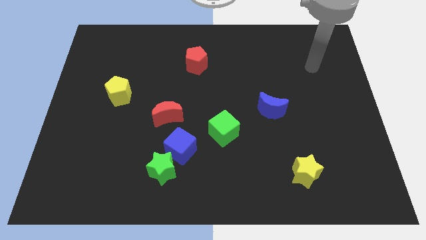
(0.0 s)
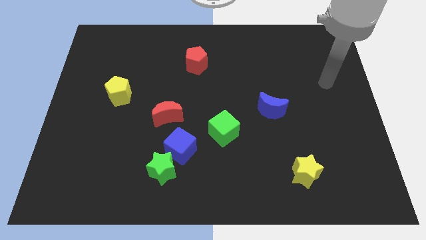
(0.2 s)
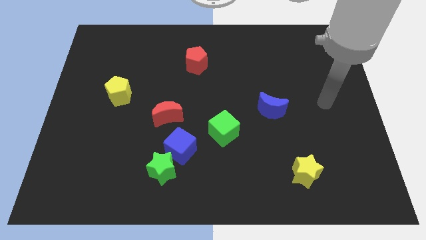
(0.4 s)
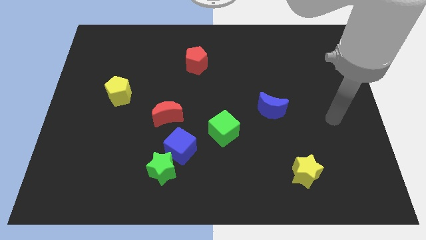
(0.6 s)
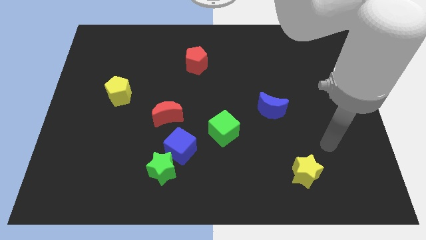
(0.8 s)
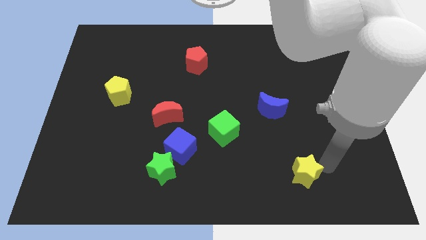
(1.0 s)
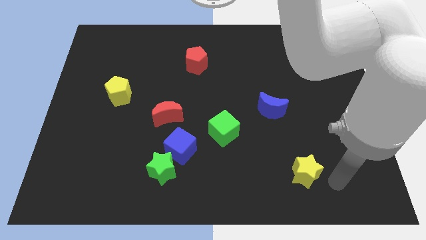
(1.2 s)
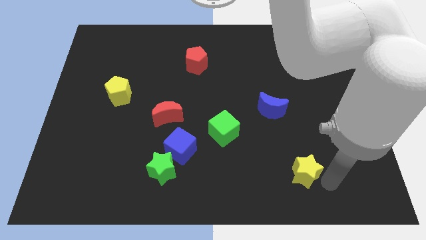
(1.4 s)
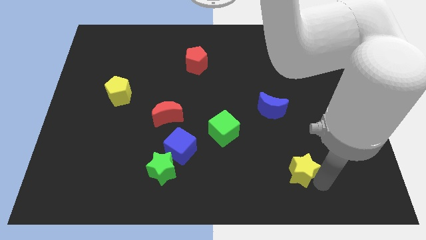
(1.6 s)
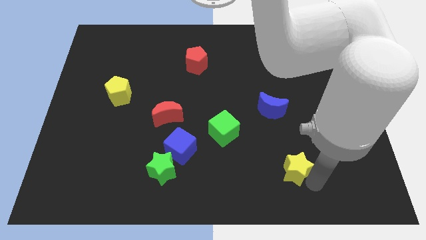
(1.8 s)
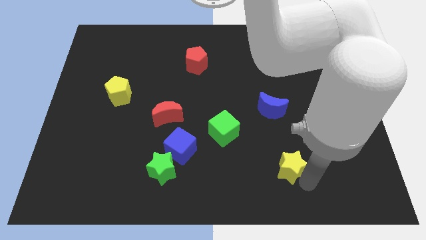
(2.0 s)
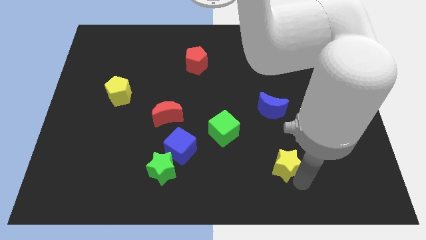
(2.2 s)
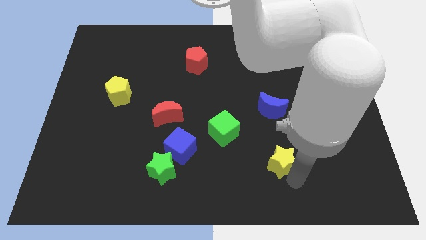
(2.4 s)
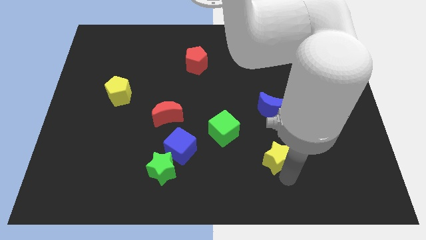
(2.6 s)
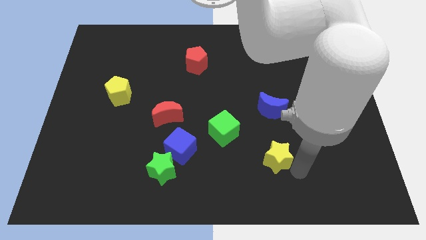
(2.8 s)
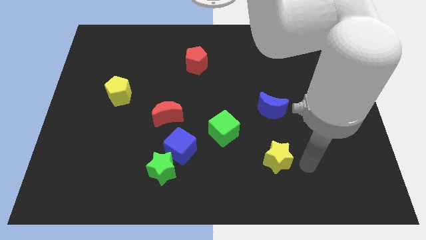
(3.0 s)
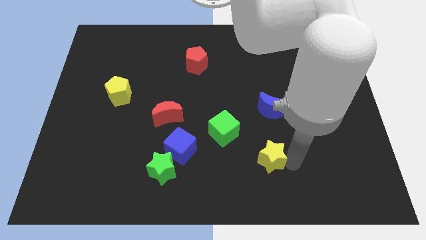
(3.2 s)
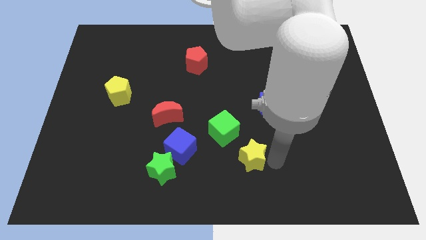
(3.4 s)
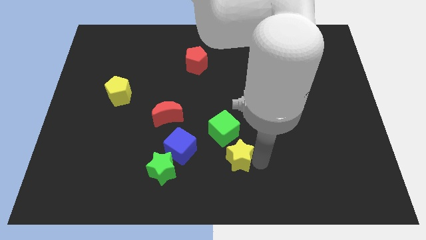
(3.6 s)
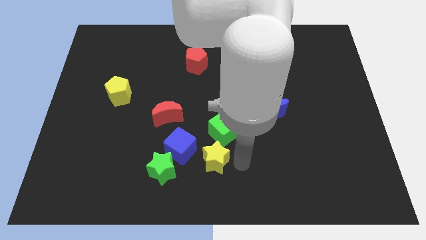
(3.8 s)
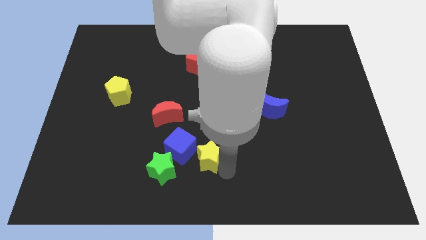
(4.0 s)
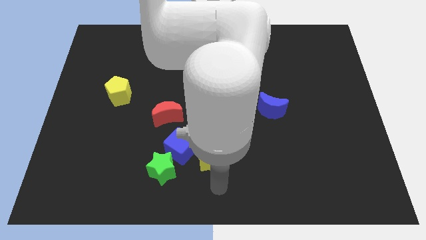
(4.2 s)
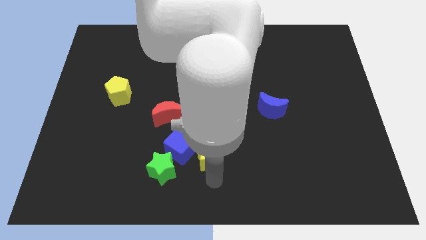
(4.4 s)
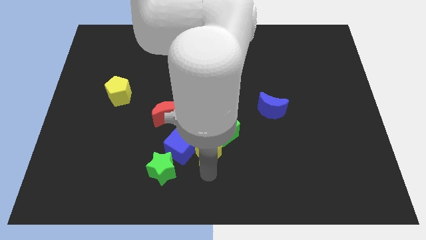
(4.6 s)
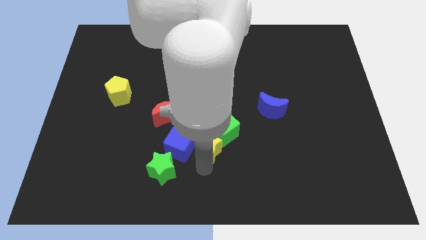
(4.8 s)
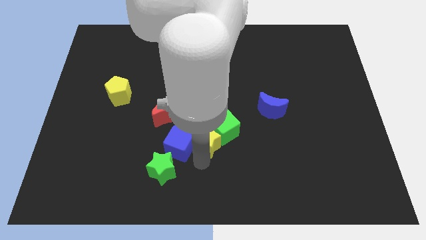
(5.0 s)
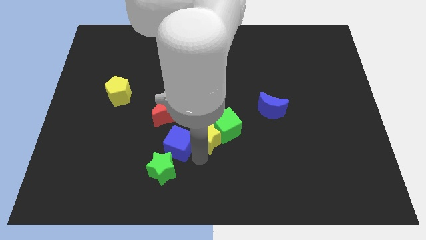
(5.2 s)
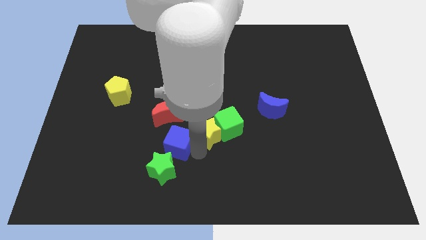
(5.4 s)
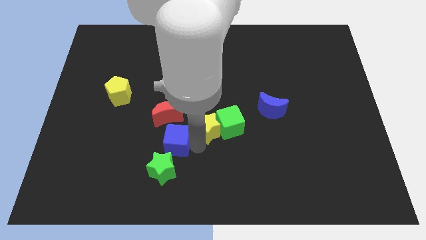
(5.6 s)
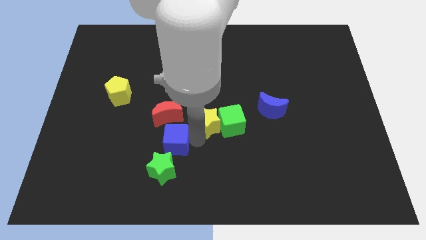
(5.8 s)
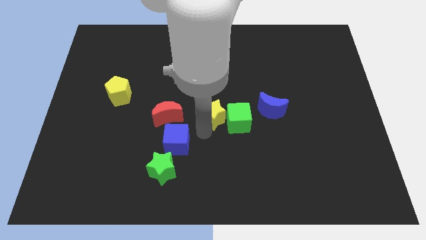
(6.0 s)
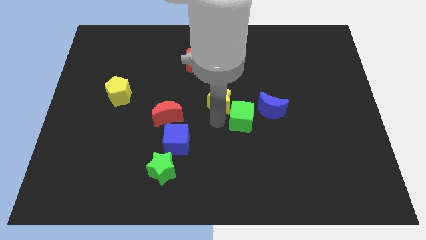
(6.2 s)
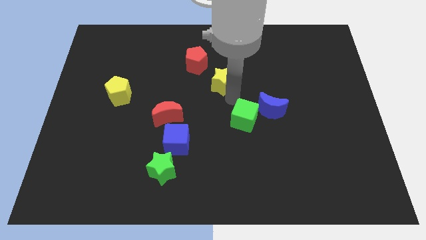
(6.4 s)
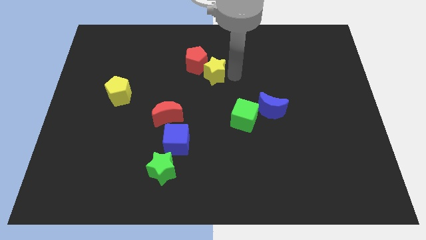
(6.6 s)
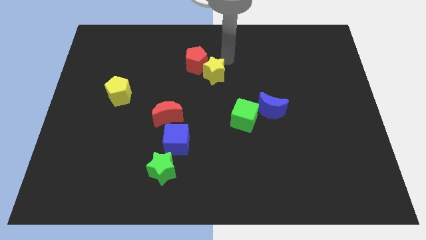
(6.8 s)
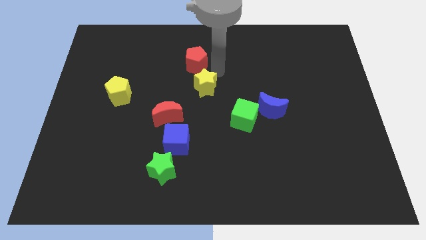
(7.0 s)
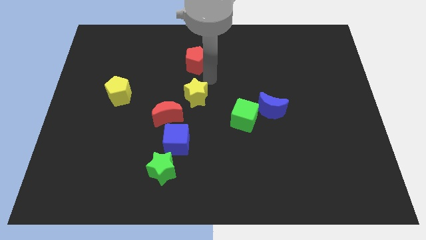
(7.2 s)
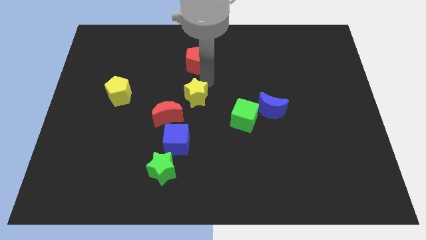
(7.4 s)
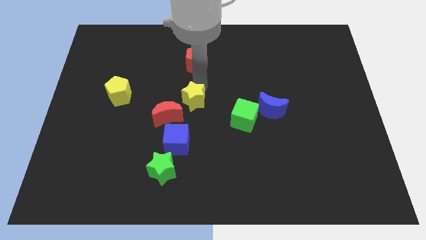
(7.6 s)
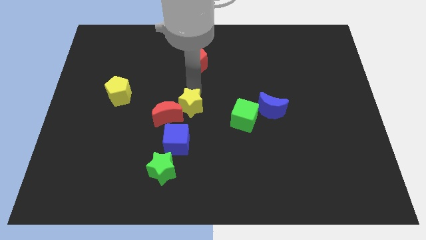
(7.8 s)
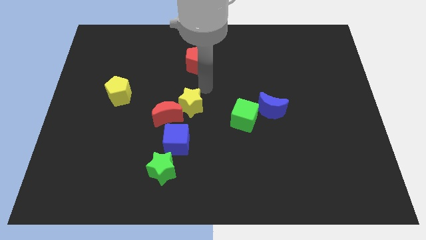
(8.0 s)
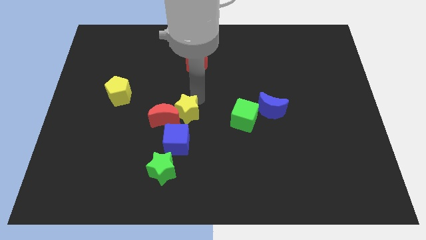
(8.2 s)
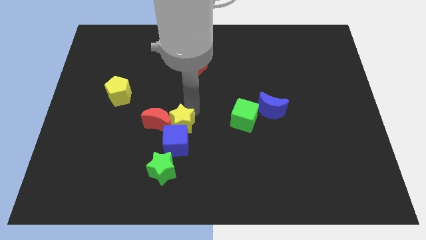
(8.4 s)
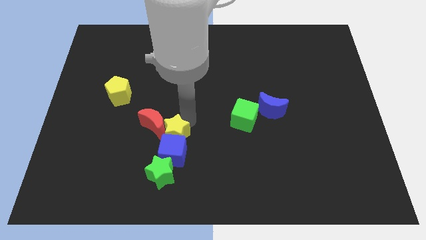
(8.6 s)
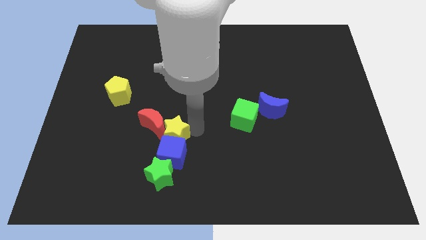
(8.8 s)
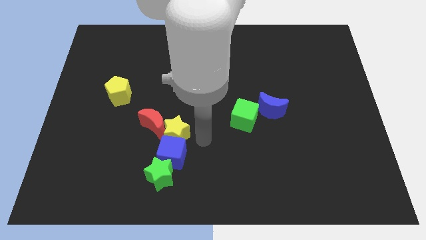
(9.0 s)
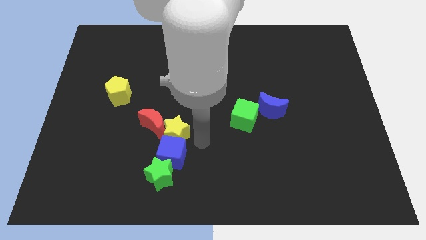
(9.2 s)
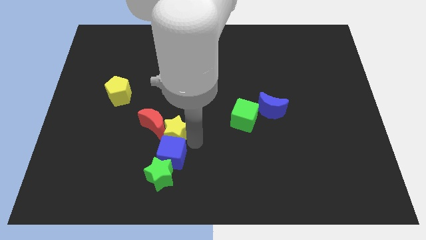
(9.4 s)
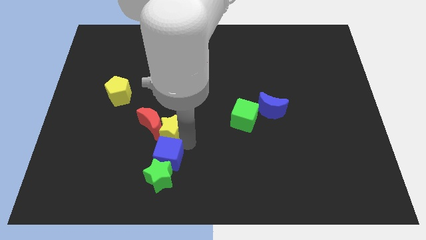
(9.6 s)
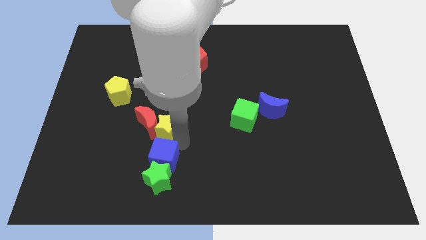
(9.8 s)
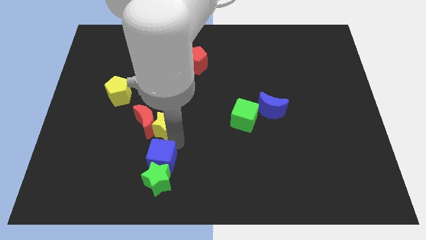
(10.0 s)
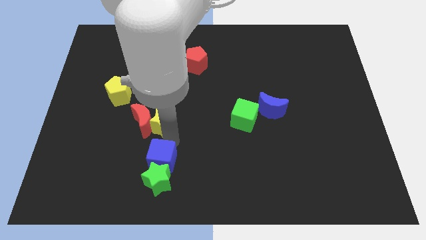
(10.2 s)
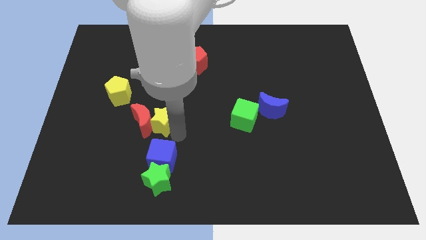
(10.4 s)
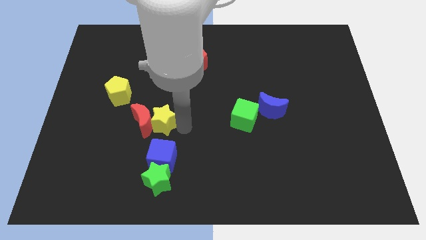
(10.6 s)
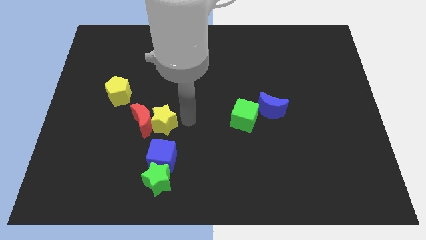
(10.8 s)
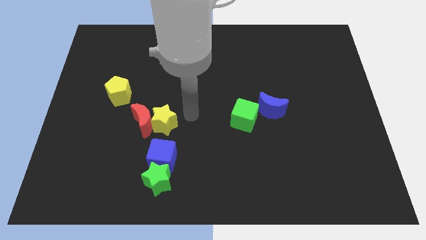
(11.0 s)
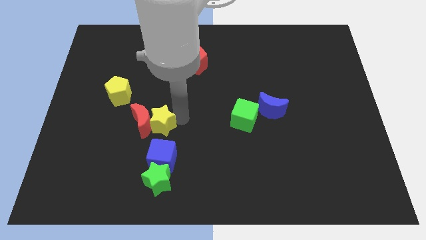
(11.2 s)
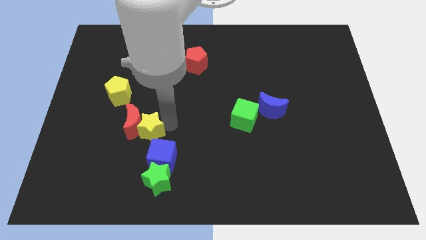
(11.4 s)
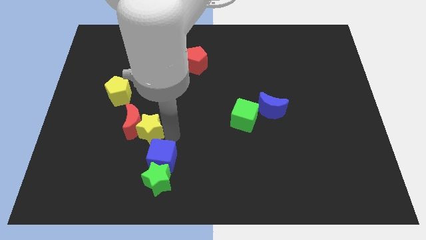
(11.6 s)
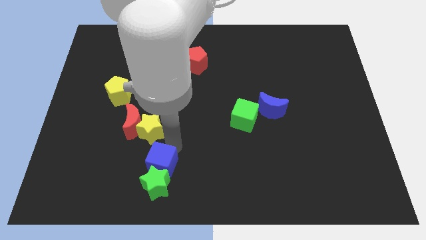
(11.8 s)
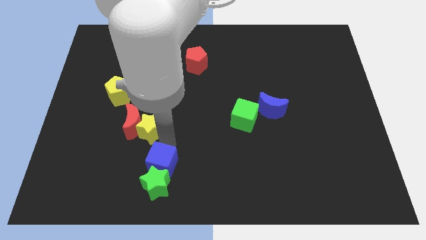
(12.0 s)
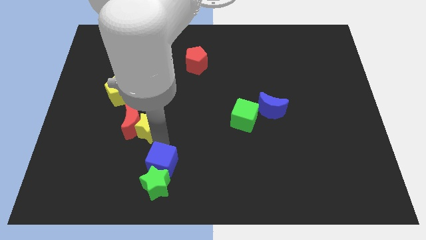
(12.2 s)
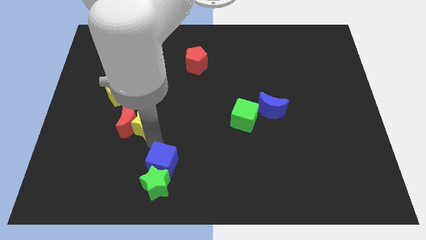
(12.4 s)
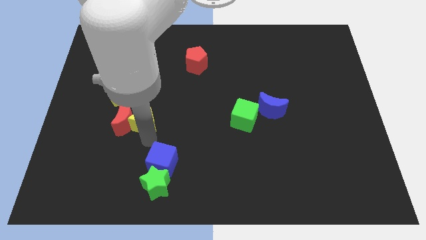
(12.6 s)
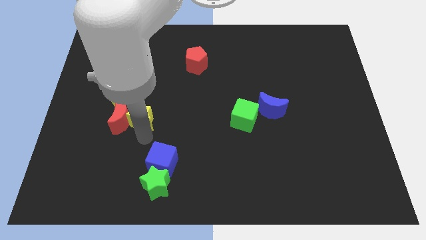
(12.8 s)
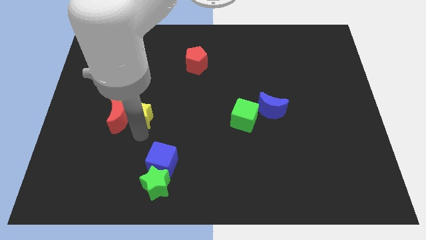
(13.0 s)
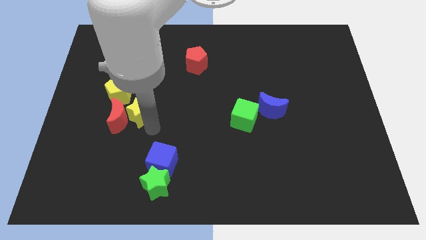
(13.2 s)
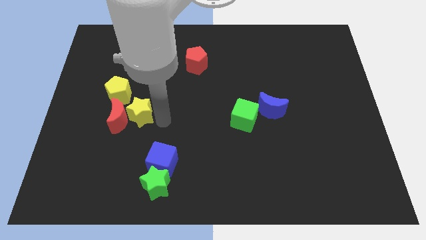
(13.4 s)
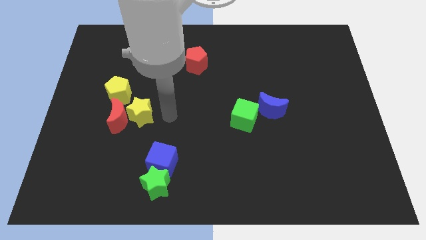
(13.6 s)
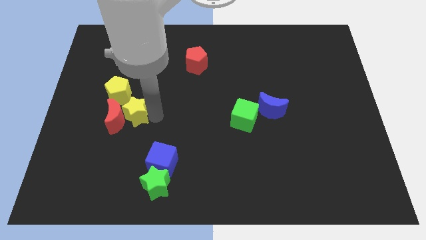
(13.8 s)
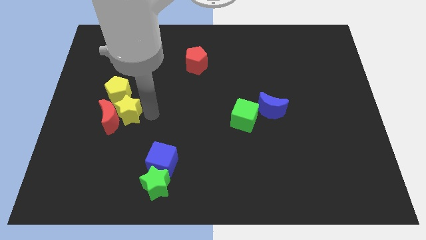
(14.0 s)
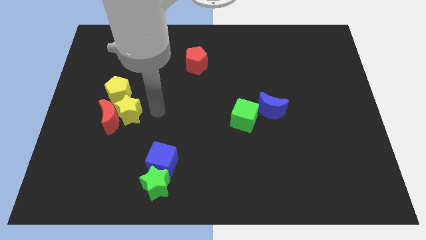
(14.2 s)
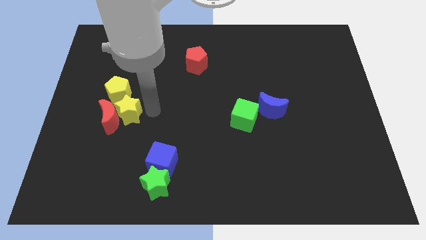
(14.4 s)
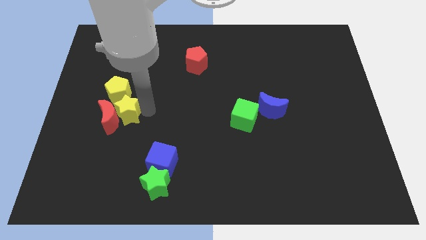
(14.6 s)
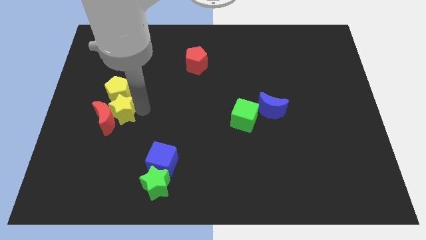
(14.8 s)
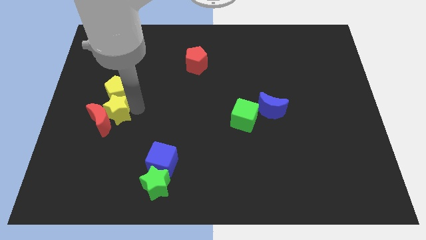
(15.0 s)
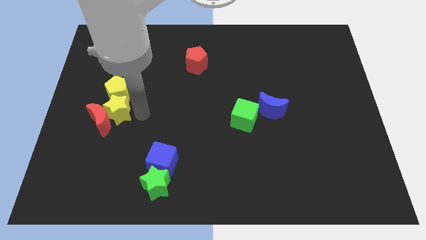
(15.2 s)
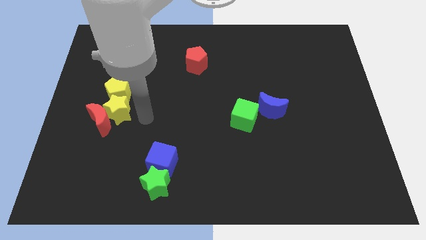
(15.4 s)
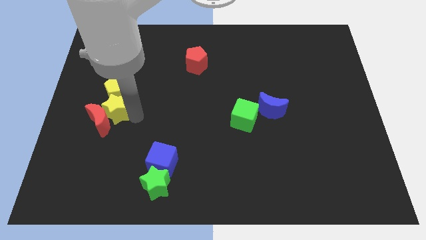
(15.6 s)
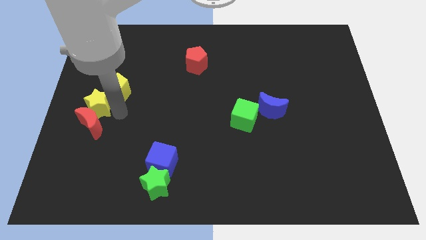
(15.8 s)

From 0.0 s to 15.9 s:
push the yellow star to the left side of the board
